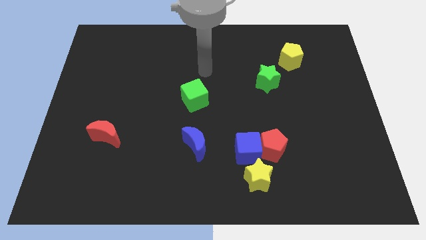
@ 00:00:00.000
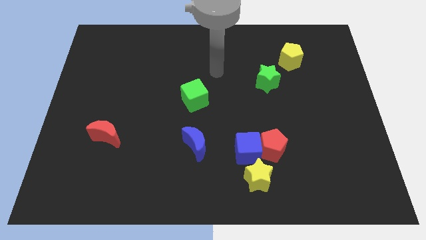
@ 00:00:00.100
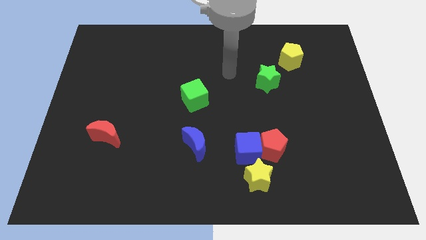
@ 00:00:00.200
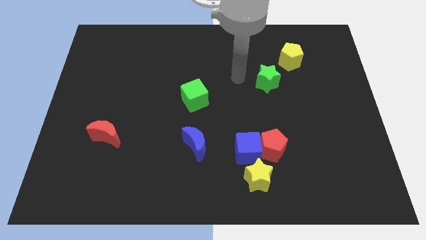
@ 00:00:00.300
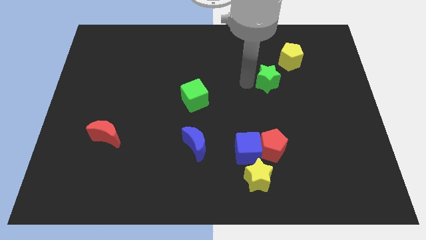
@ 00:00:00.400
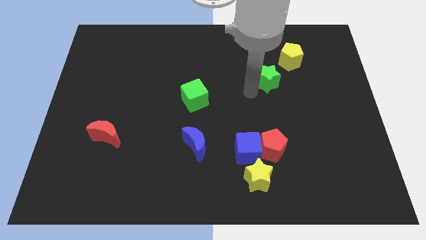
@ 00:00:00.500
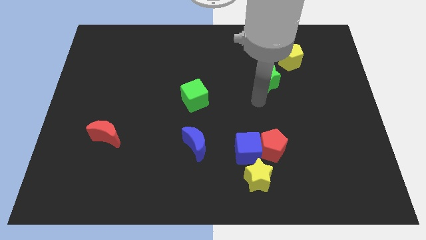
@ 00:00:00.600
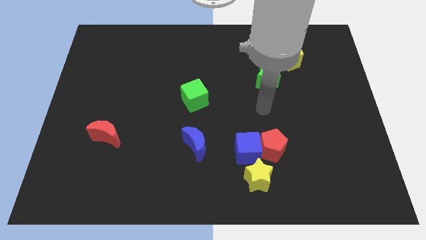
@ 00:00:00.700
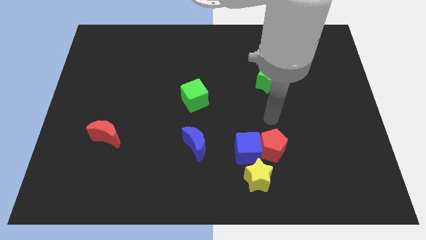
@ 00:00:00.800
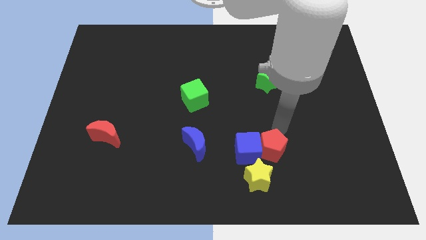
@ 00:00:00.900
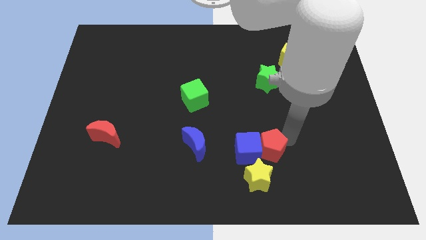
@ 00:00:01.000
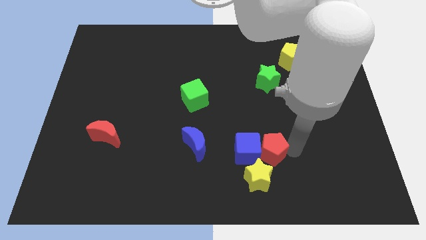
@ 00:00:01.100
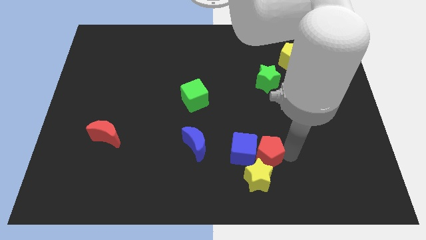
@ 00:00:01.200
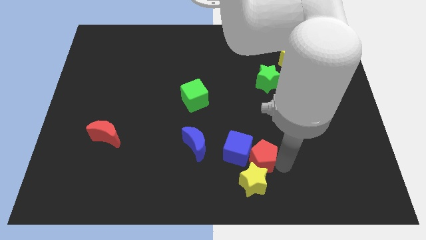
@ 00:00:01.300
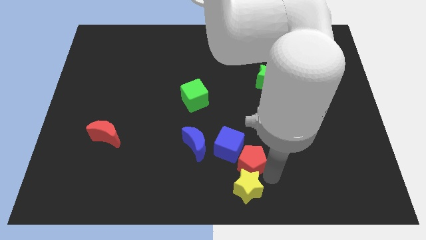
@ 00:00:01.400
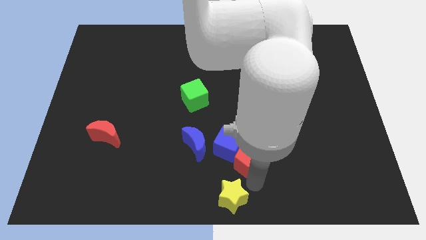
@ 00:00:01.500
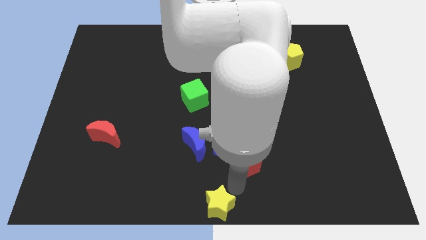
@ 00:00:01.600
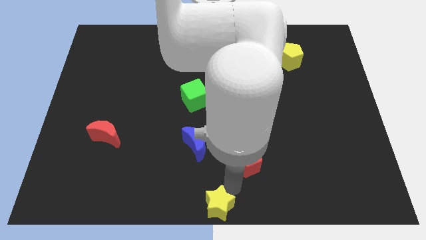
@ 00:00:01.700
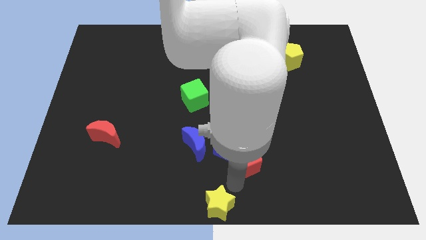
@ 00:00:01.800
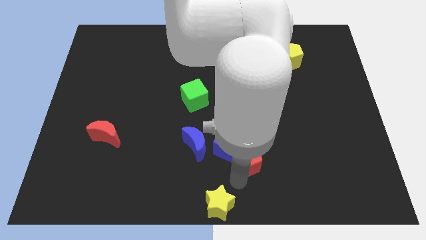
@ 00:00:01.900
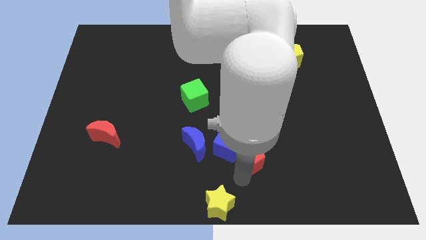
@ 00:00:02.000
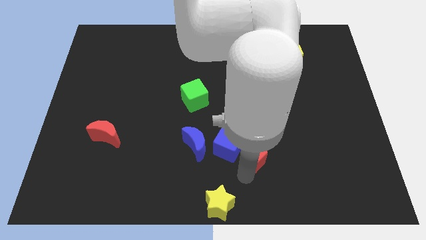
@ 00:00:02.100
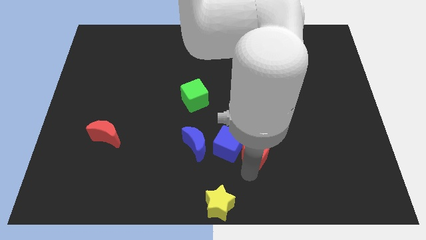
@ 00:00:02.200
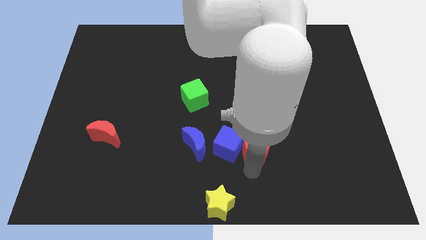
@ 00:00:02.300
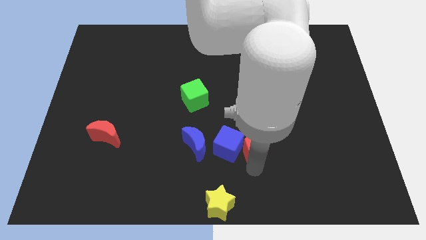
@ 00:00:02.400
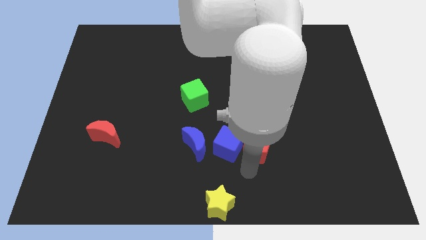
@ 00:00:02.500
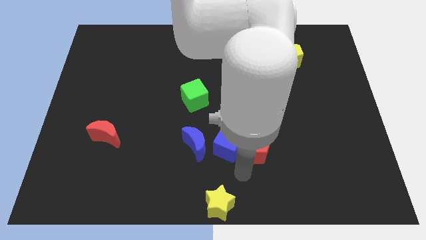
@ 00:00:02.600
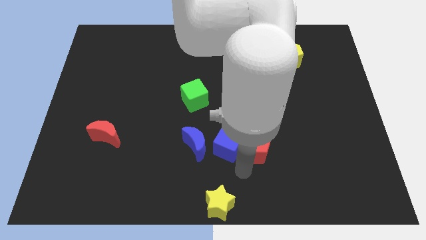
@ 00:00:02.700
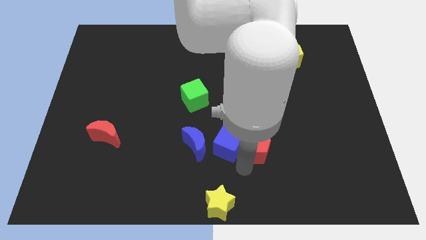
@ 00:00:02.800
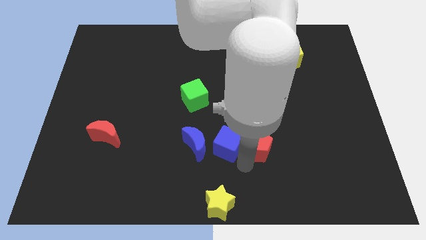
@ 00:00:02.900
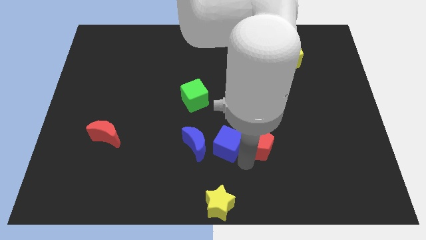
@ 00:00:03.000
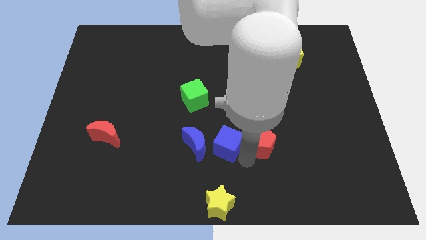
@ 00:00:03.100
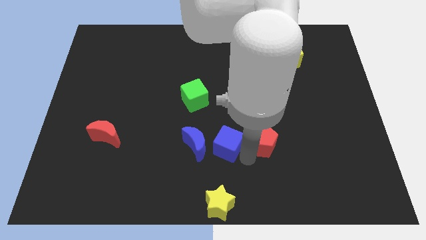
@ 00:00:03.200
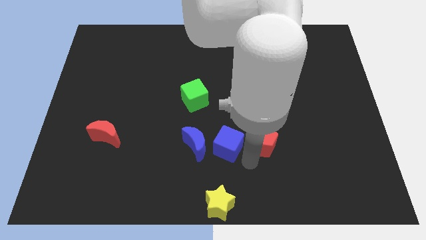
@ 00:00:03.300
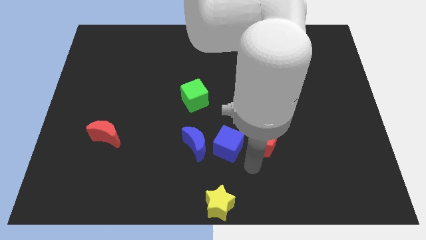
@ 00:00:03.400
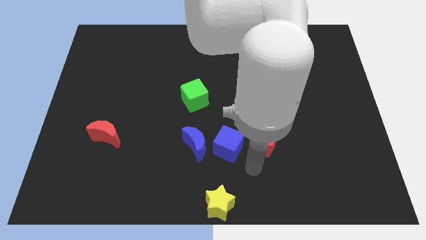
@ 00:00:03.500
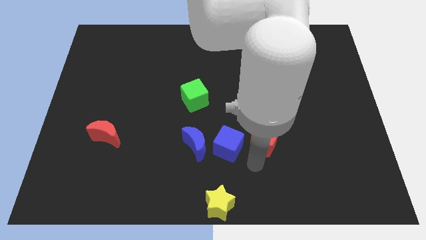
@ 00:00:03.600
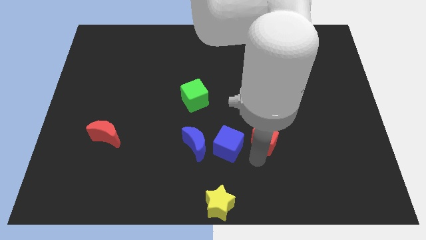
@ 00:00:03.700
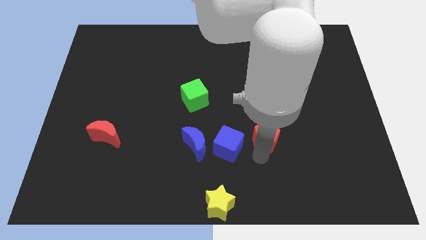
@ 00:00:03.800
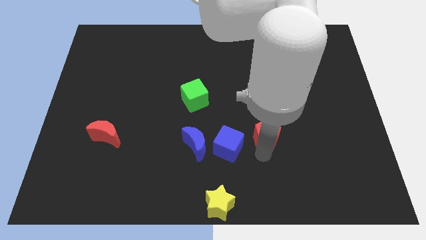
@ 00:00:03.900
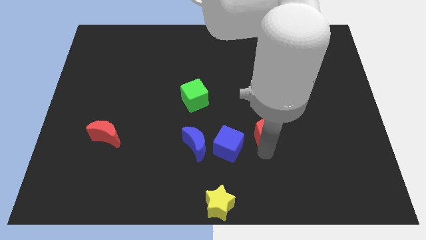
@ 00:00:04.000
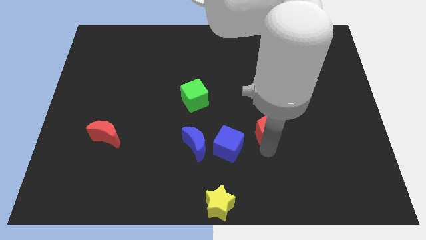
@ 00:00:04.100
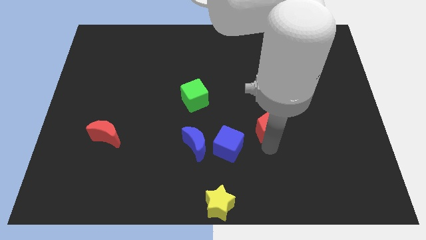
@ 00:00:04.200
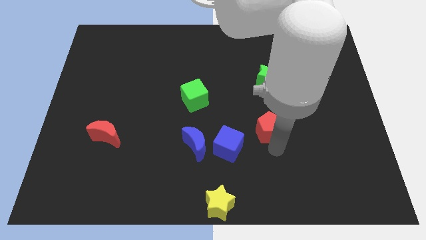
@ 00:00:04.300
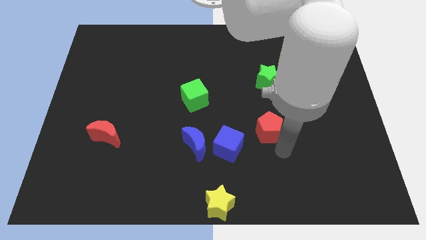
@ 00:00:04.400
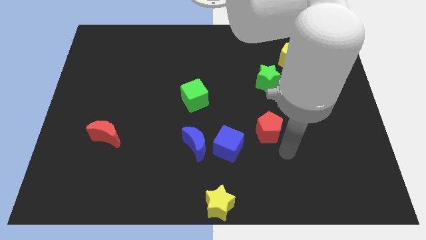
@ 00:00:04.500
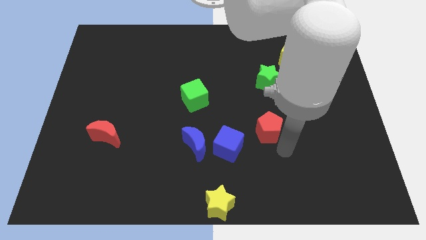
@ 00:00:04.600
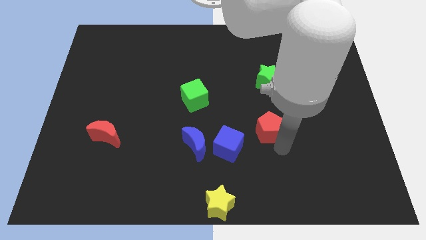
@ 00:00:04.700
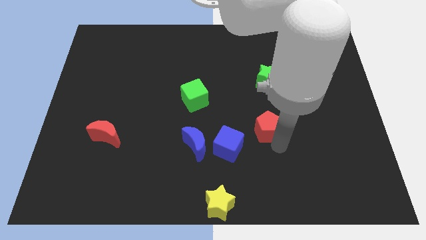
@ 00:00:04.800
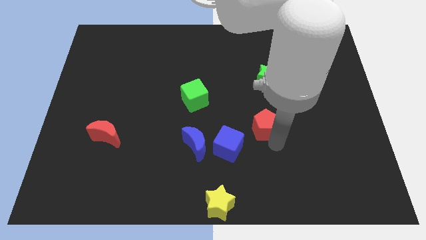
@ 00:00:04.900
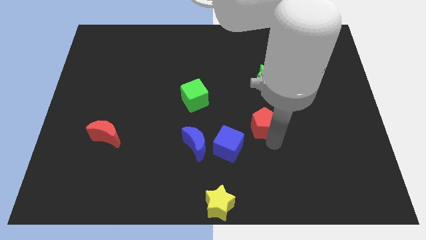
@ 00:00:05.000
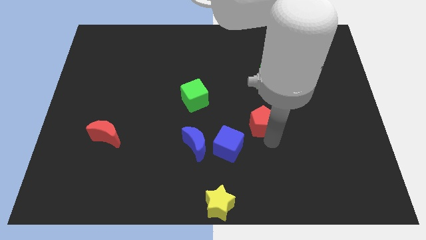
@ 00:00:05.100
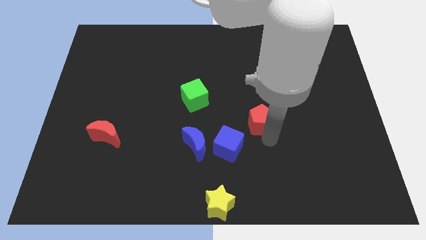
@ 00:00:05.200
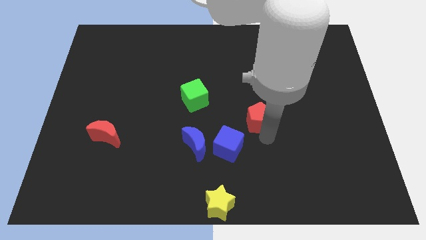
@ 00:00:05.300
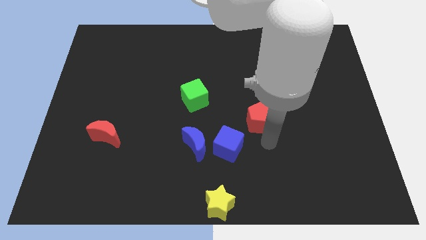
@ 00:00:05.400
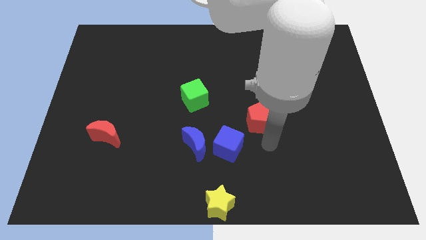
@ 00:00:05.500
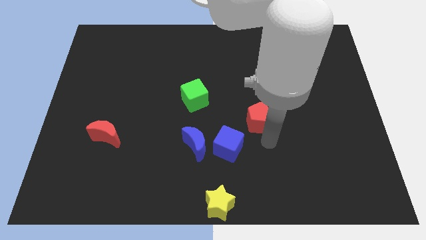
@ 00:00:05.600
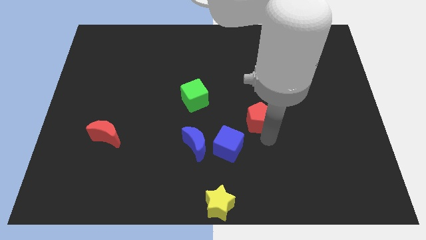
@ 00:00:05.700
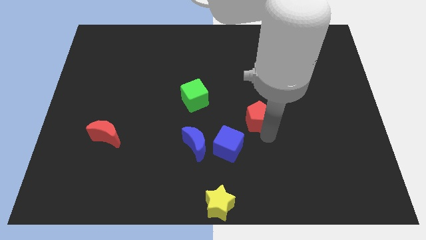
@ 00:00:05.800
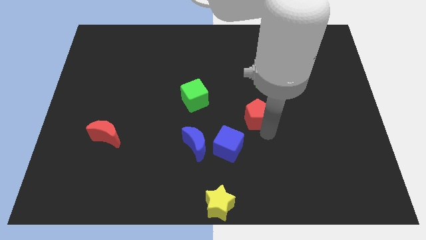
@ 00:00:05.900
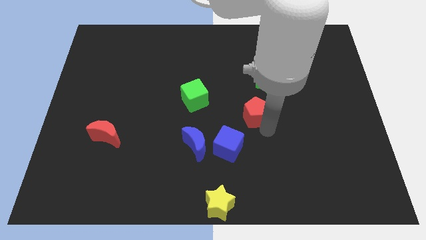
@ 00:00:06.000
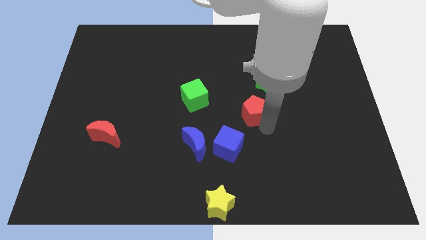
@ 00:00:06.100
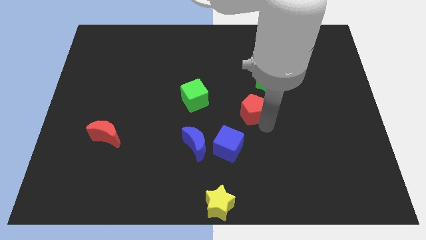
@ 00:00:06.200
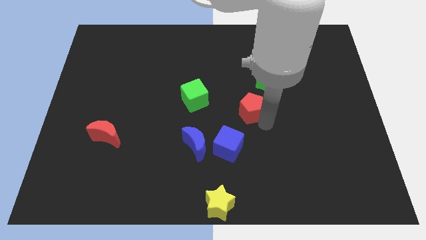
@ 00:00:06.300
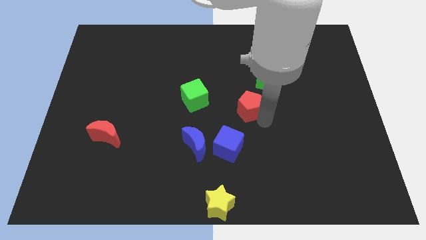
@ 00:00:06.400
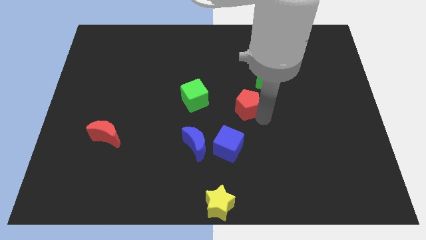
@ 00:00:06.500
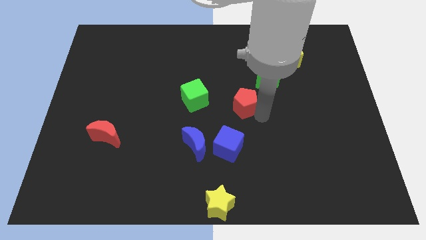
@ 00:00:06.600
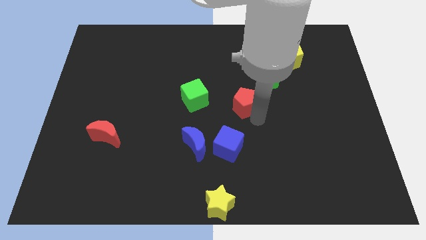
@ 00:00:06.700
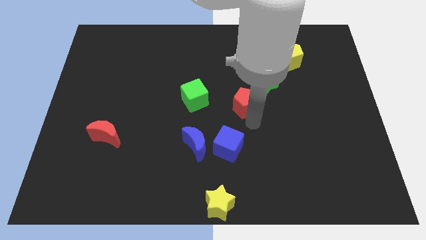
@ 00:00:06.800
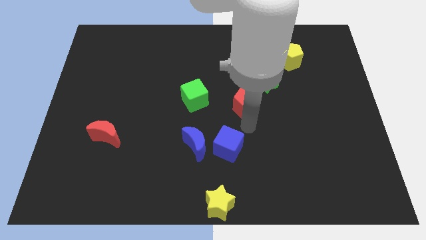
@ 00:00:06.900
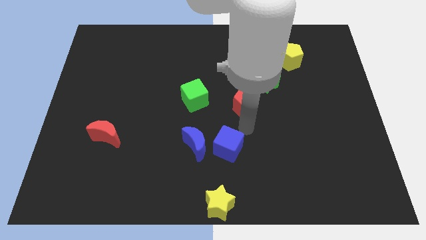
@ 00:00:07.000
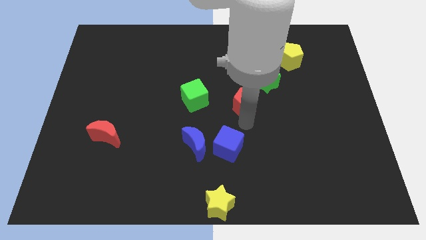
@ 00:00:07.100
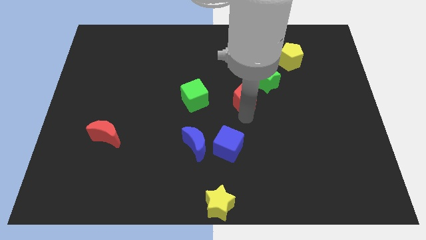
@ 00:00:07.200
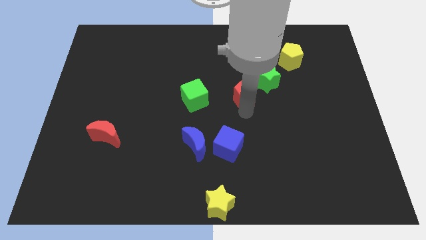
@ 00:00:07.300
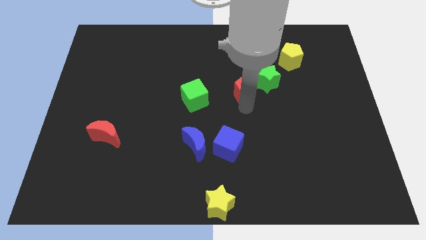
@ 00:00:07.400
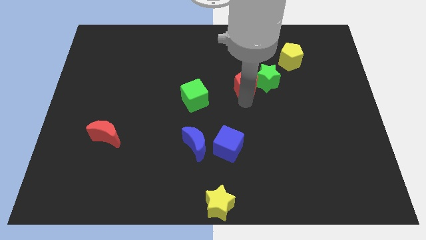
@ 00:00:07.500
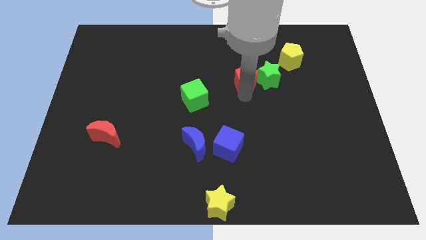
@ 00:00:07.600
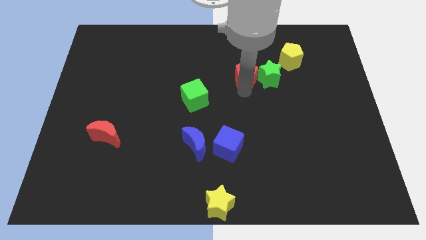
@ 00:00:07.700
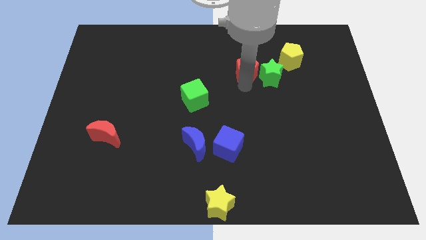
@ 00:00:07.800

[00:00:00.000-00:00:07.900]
push the red pentagon to the left side of the yellow pentagon
